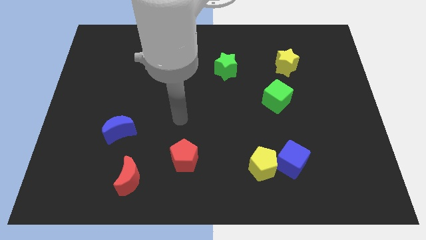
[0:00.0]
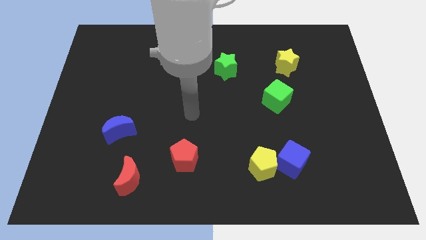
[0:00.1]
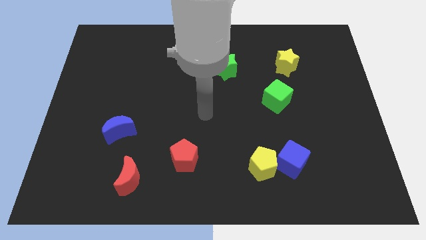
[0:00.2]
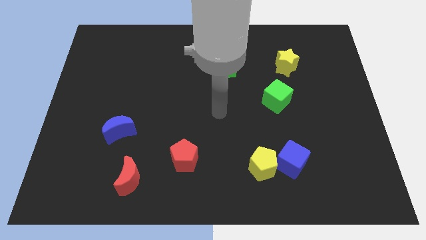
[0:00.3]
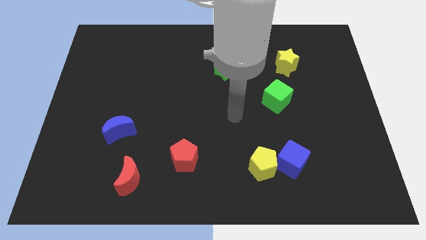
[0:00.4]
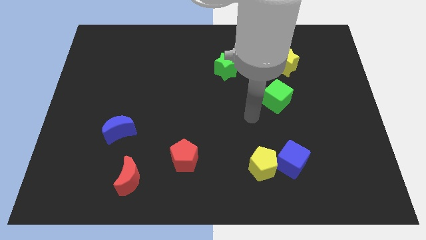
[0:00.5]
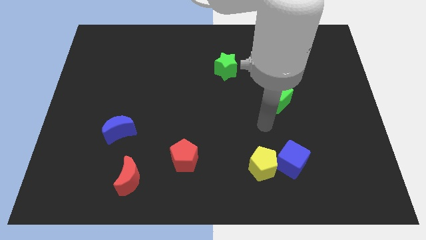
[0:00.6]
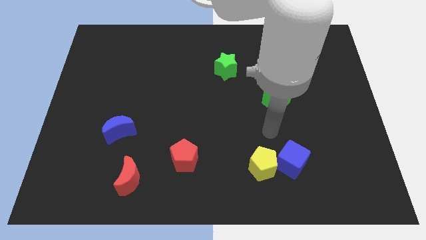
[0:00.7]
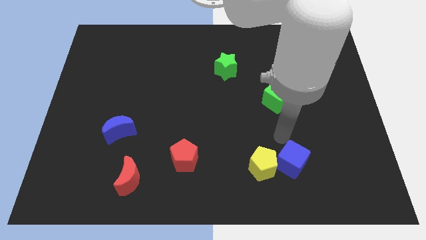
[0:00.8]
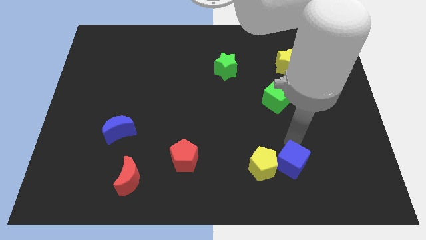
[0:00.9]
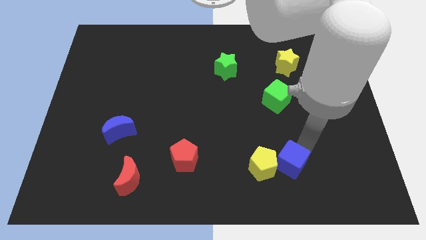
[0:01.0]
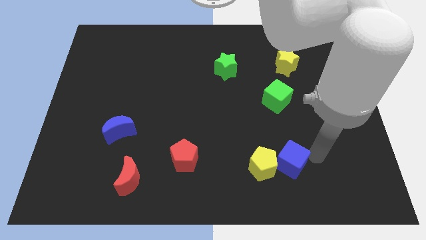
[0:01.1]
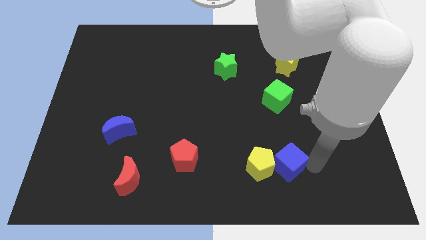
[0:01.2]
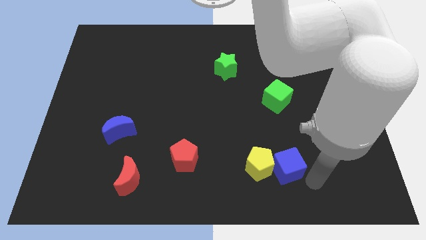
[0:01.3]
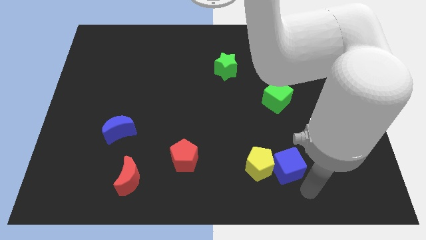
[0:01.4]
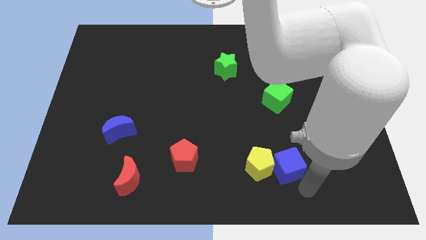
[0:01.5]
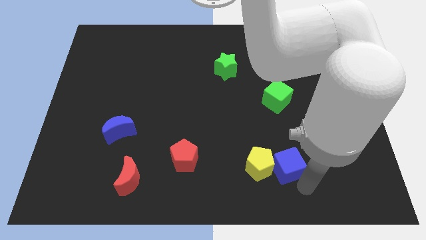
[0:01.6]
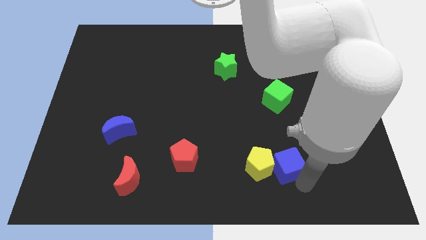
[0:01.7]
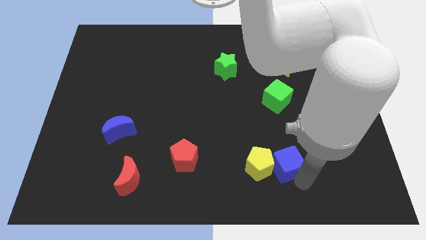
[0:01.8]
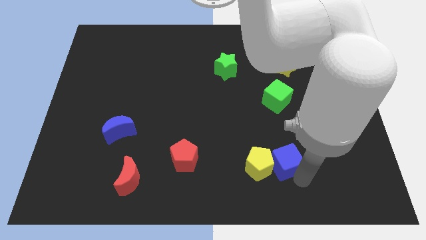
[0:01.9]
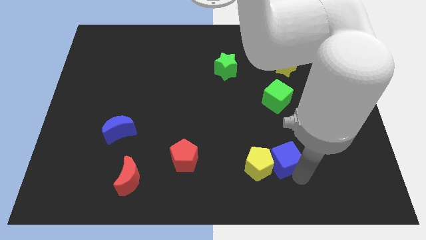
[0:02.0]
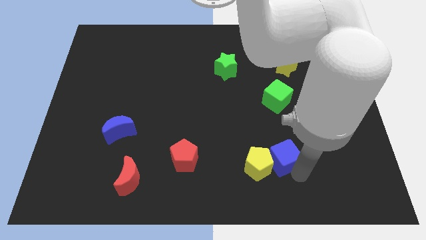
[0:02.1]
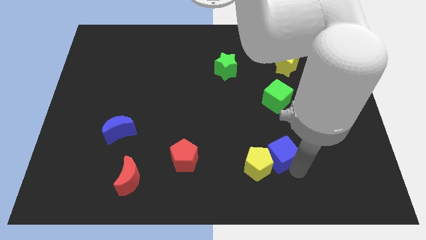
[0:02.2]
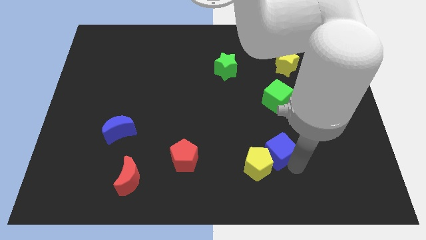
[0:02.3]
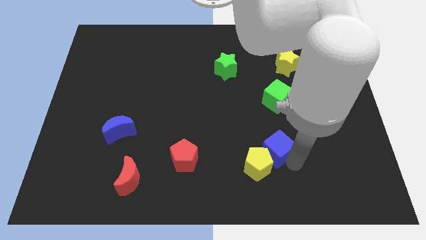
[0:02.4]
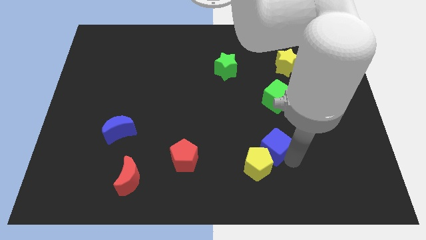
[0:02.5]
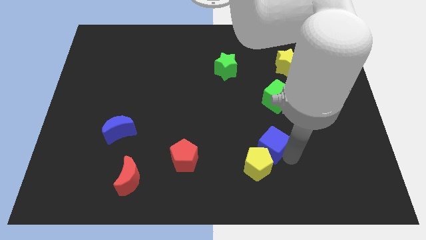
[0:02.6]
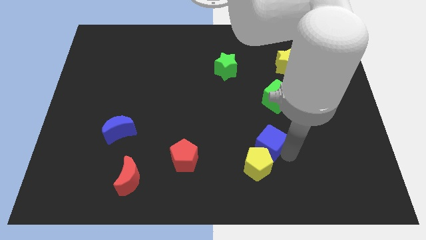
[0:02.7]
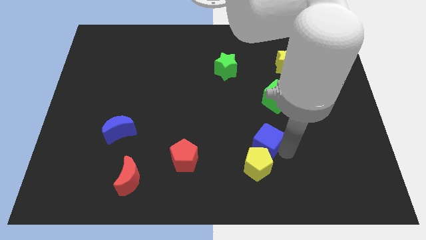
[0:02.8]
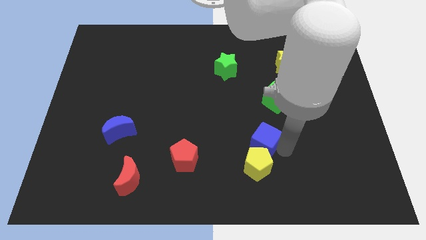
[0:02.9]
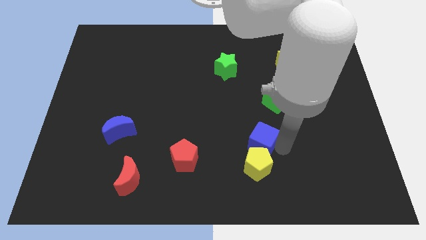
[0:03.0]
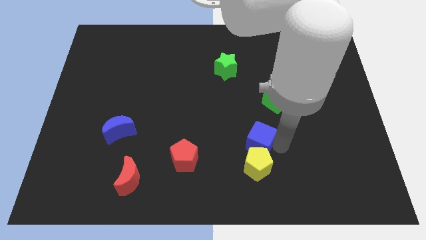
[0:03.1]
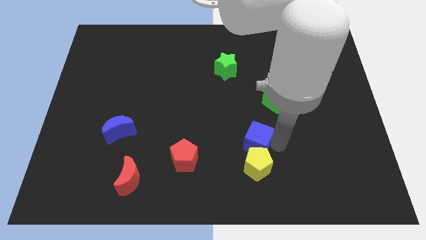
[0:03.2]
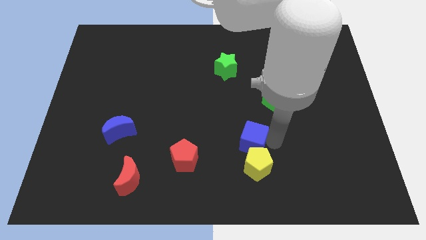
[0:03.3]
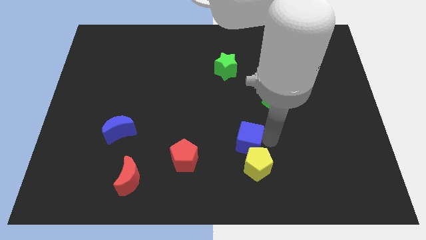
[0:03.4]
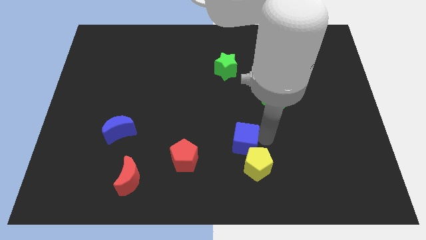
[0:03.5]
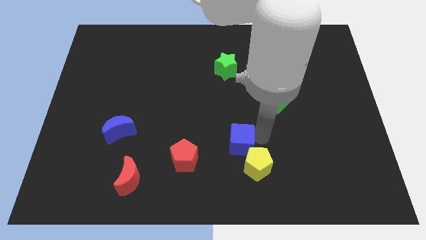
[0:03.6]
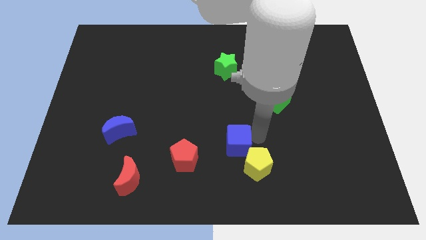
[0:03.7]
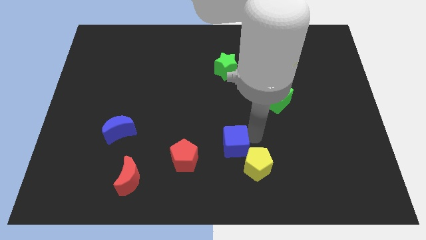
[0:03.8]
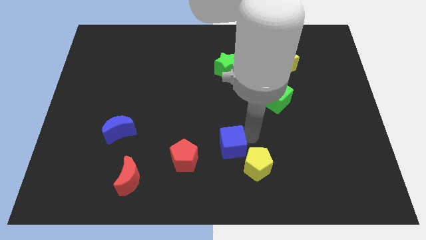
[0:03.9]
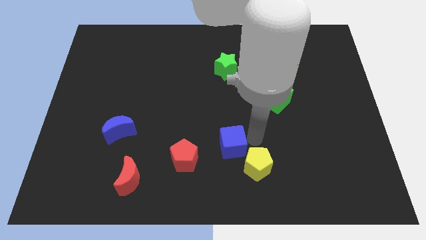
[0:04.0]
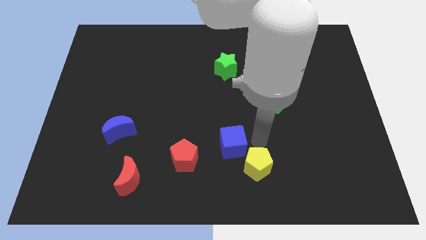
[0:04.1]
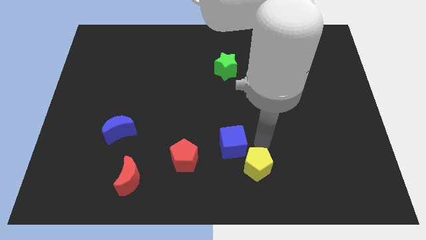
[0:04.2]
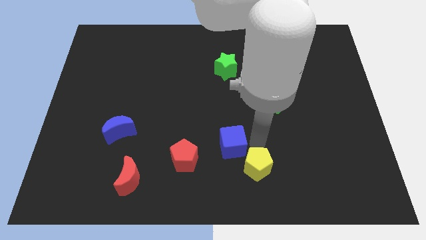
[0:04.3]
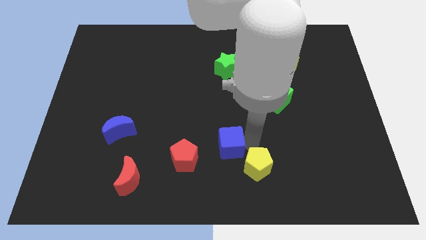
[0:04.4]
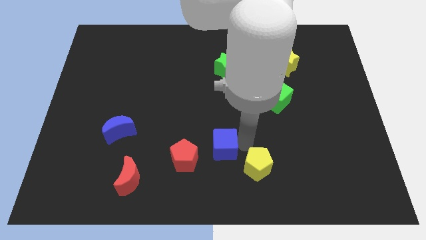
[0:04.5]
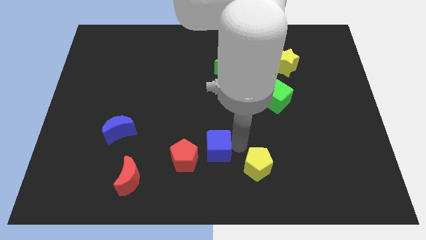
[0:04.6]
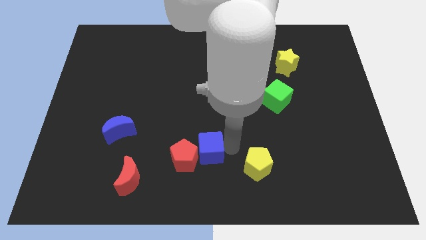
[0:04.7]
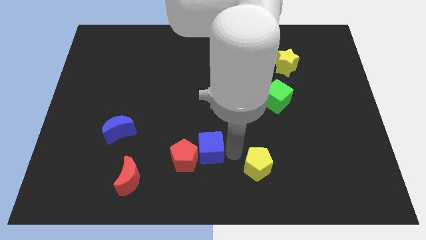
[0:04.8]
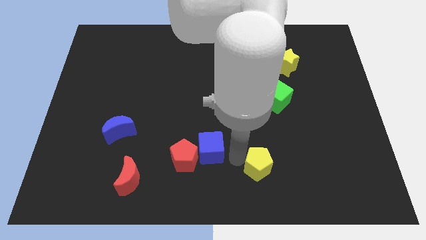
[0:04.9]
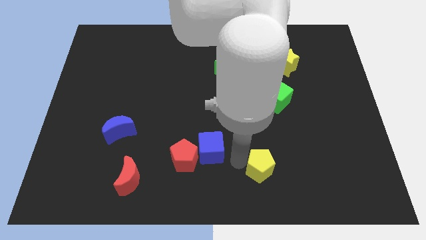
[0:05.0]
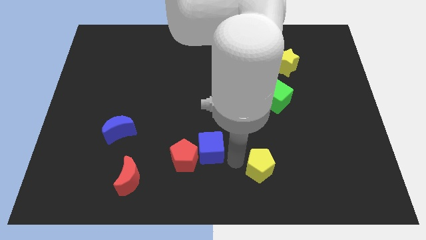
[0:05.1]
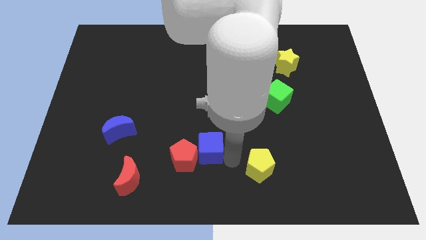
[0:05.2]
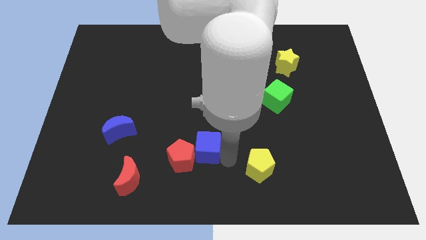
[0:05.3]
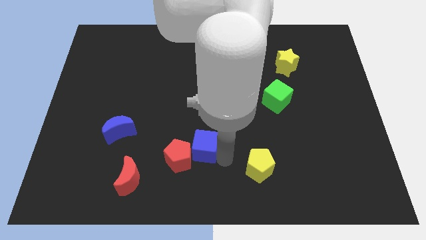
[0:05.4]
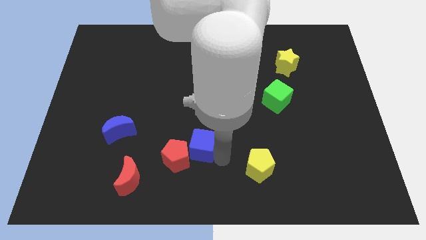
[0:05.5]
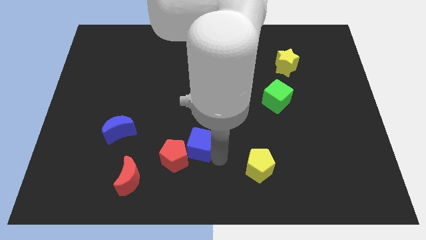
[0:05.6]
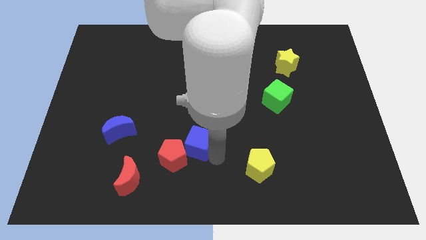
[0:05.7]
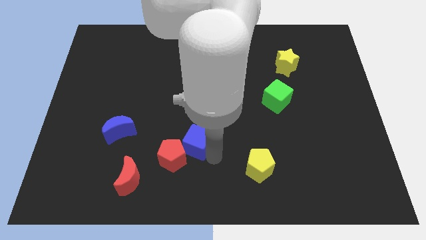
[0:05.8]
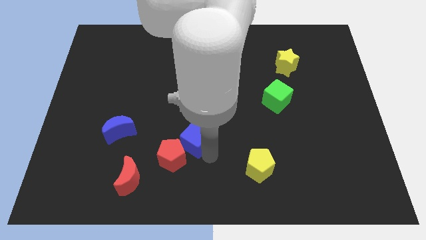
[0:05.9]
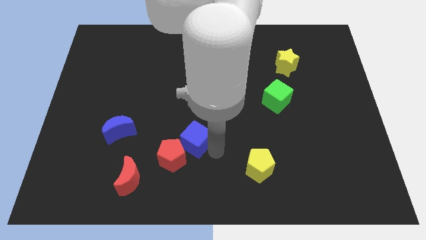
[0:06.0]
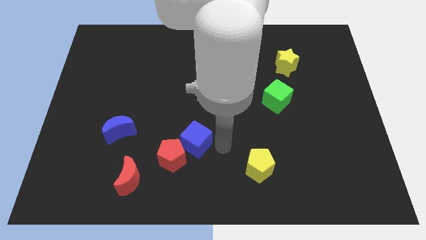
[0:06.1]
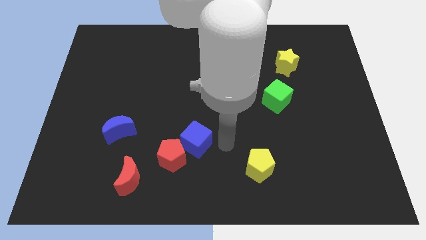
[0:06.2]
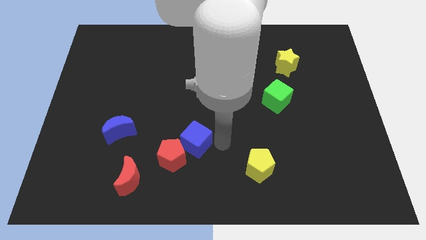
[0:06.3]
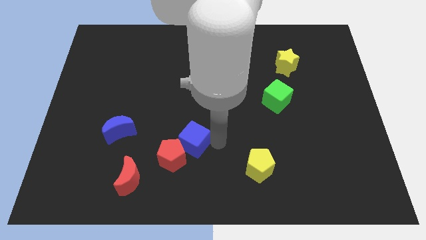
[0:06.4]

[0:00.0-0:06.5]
push the blue cube left

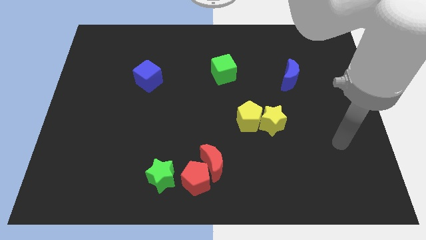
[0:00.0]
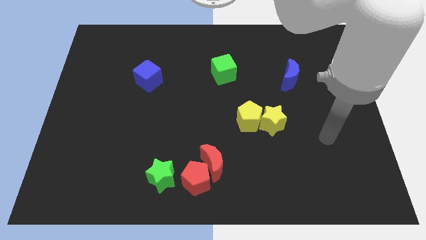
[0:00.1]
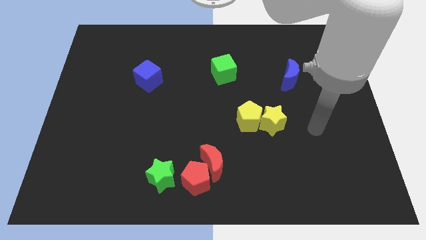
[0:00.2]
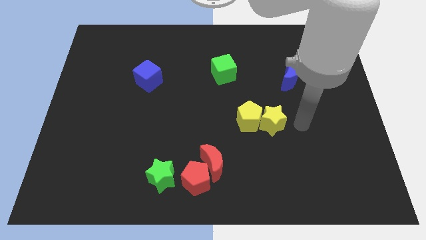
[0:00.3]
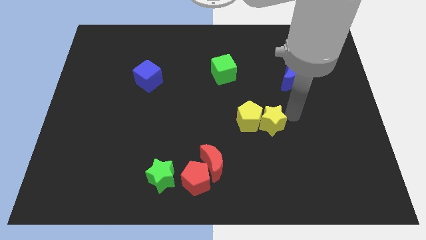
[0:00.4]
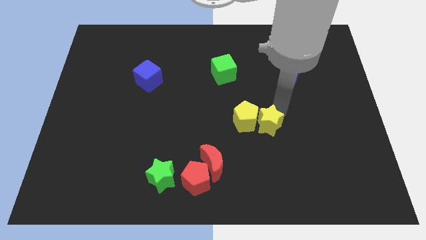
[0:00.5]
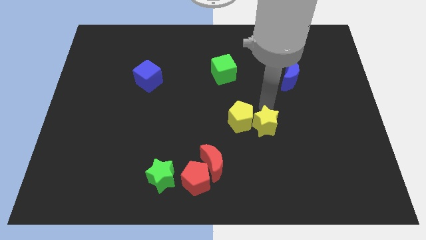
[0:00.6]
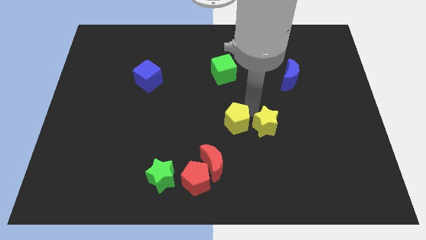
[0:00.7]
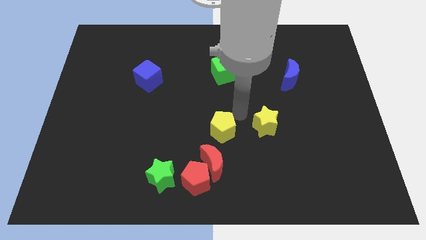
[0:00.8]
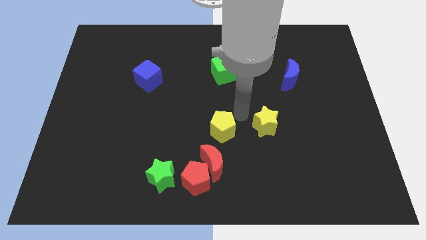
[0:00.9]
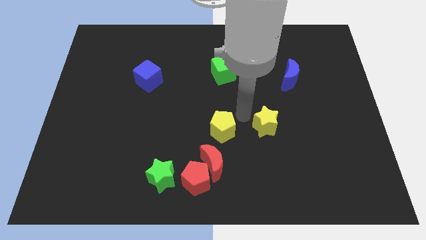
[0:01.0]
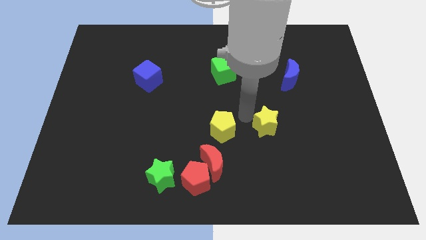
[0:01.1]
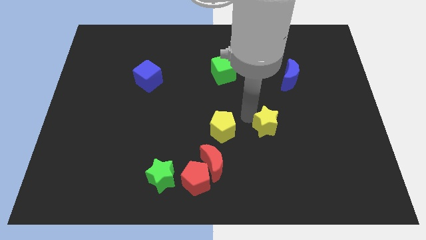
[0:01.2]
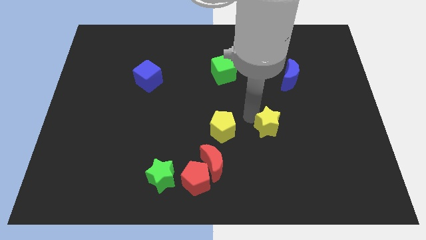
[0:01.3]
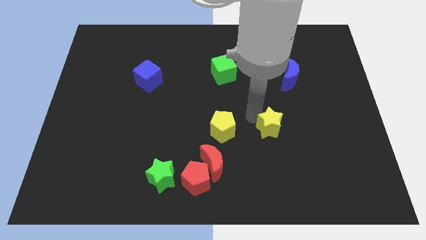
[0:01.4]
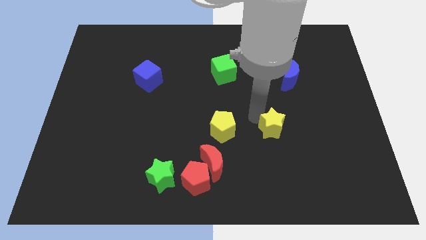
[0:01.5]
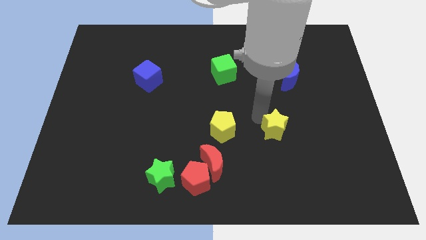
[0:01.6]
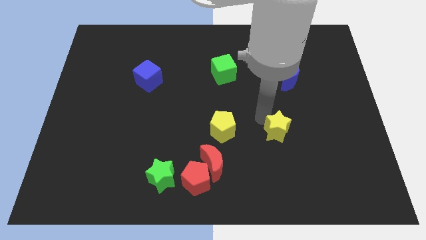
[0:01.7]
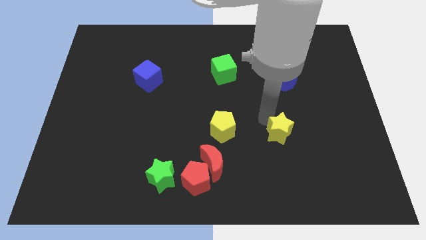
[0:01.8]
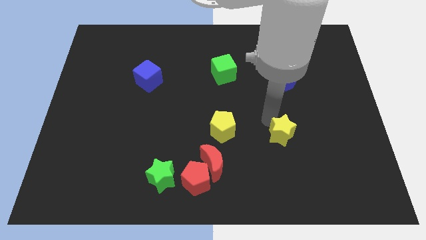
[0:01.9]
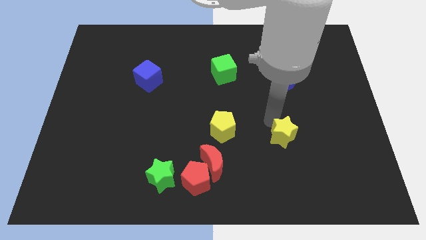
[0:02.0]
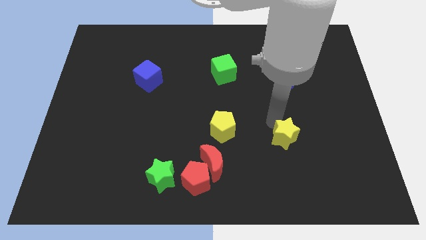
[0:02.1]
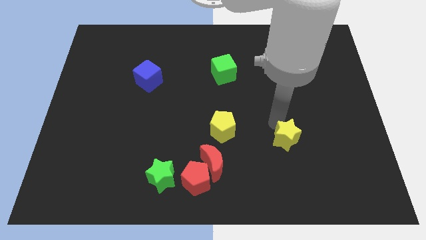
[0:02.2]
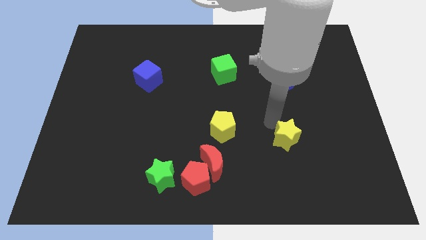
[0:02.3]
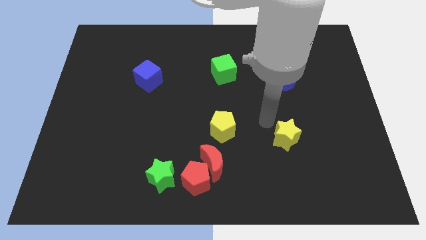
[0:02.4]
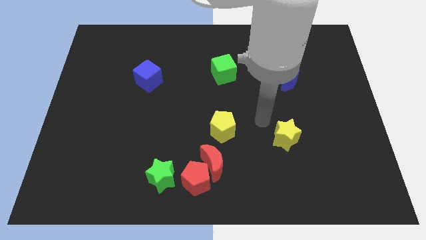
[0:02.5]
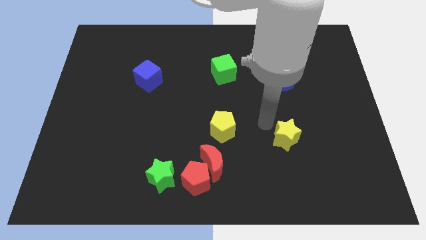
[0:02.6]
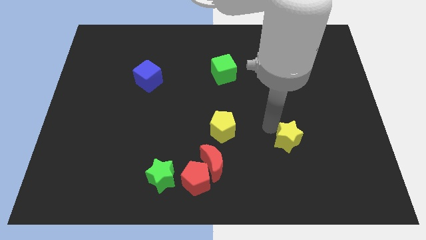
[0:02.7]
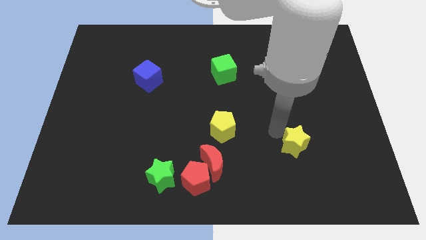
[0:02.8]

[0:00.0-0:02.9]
move the yellow star down and right slightly
